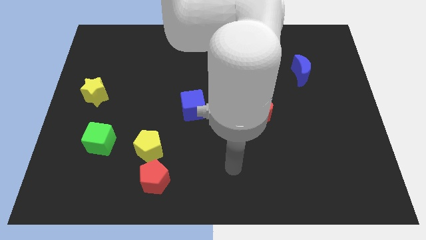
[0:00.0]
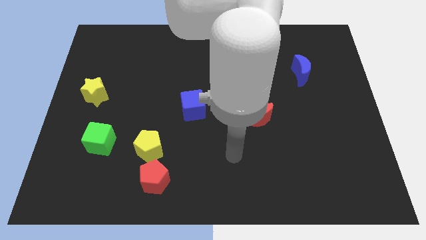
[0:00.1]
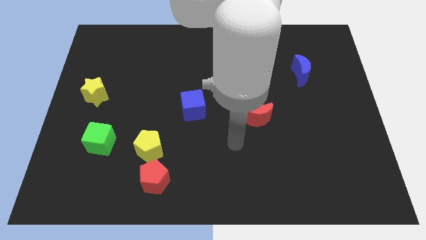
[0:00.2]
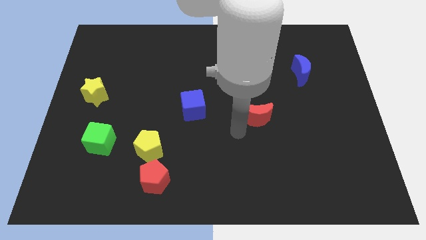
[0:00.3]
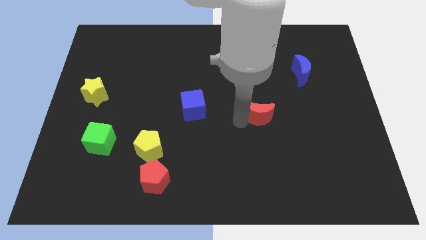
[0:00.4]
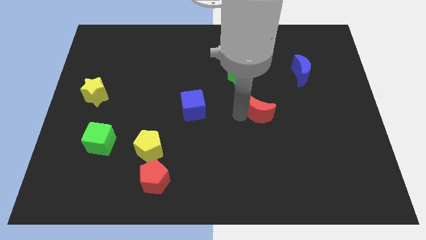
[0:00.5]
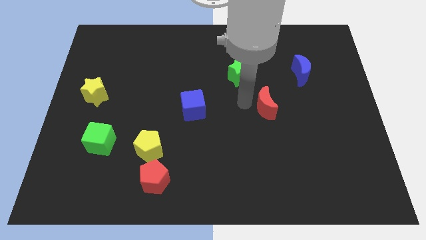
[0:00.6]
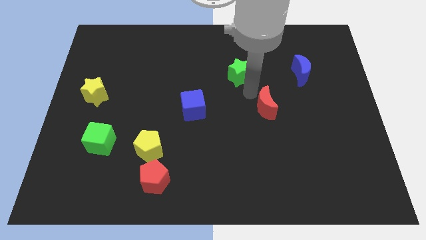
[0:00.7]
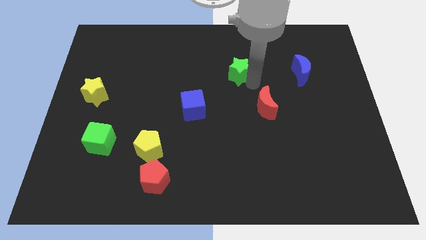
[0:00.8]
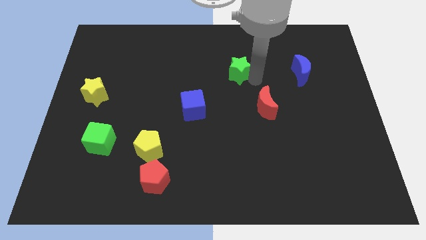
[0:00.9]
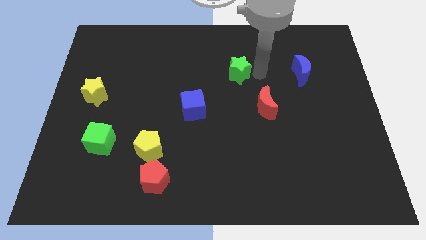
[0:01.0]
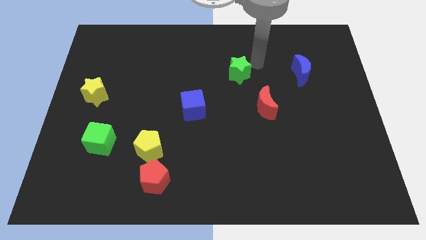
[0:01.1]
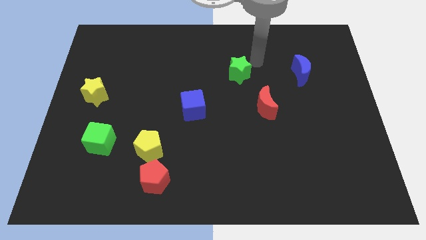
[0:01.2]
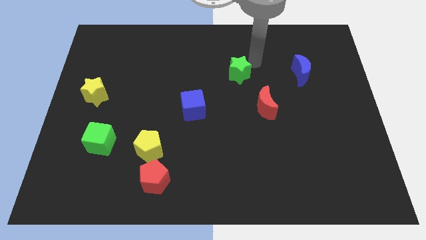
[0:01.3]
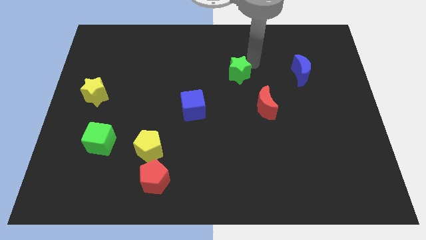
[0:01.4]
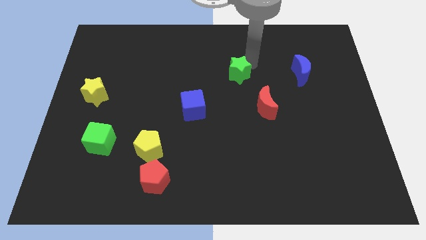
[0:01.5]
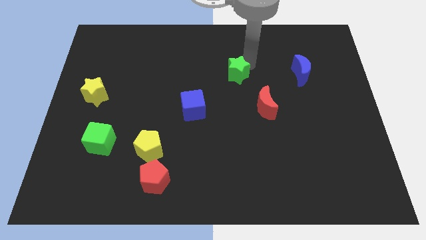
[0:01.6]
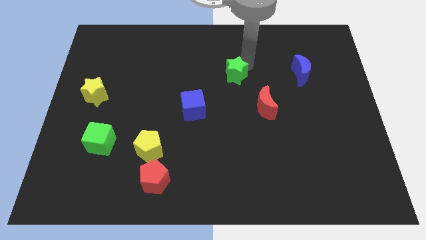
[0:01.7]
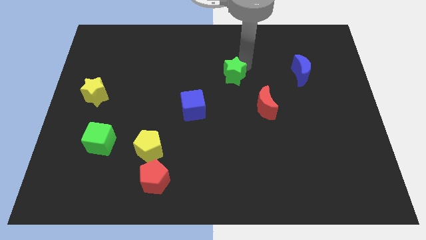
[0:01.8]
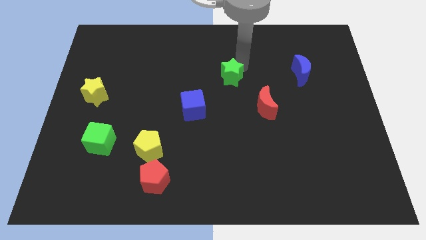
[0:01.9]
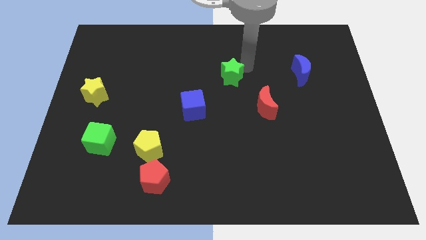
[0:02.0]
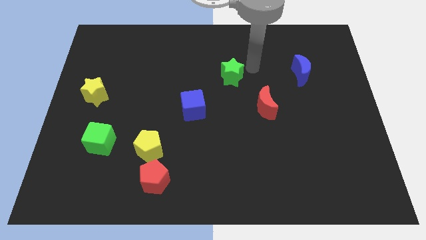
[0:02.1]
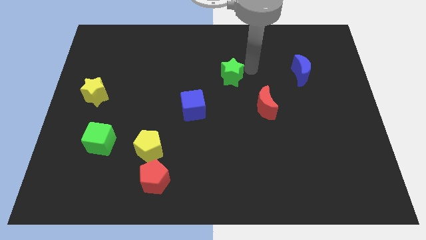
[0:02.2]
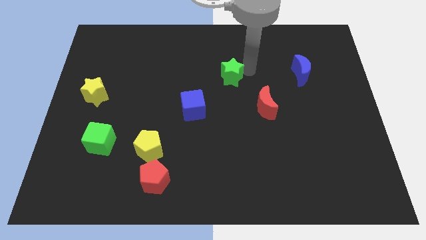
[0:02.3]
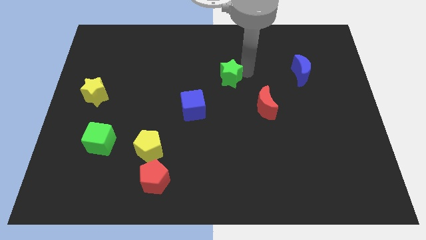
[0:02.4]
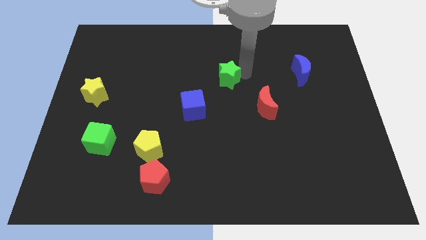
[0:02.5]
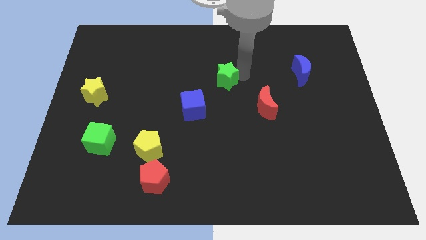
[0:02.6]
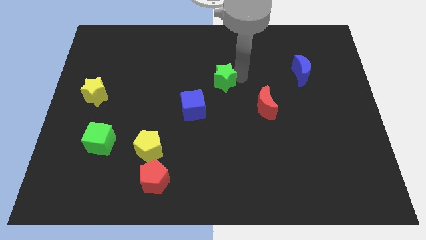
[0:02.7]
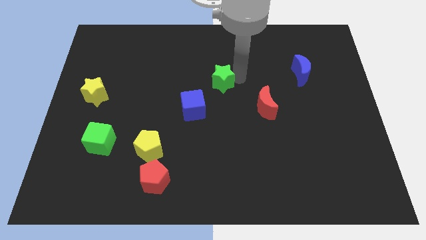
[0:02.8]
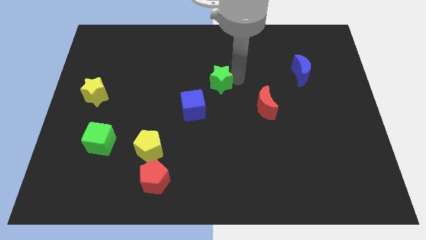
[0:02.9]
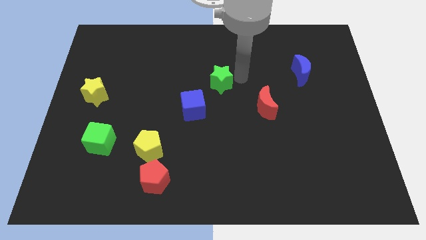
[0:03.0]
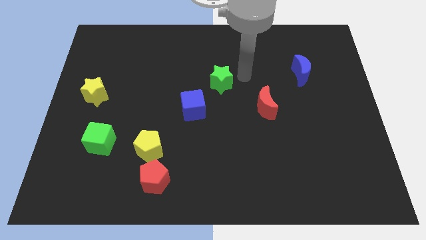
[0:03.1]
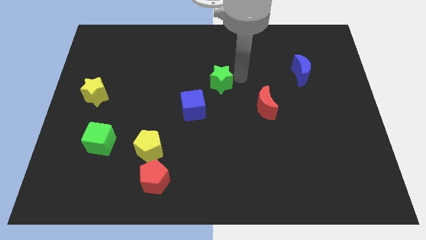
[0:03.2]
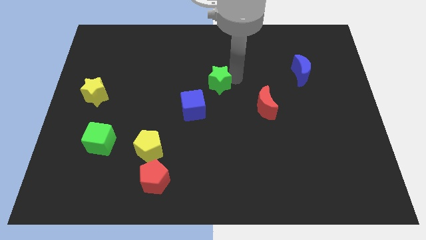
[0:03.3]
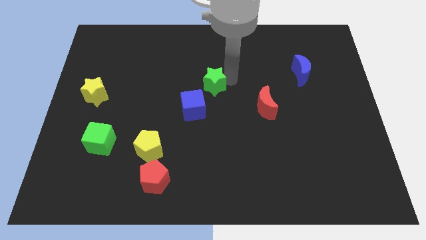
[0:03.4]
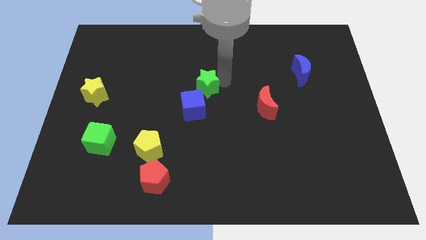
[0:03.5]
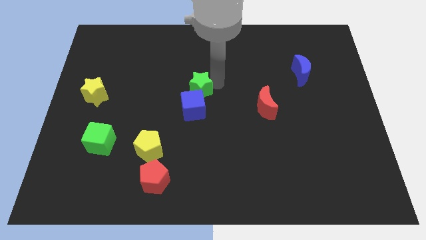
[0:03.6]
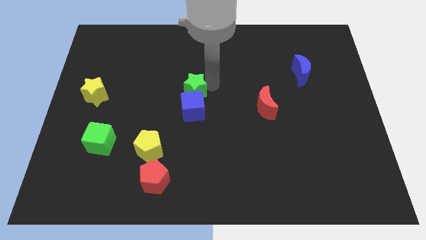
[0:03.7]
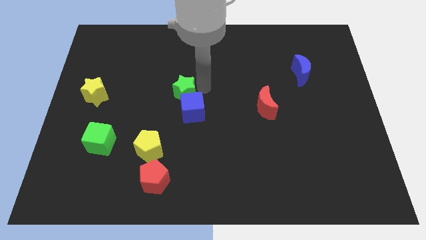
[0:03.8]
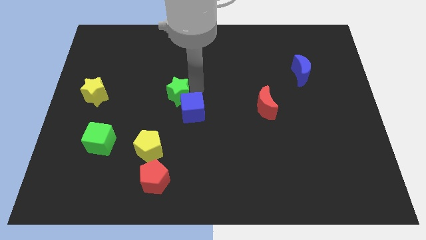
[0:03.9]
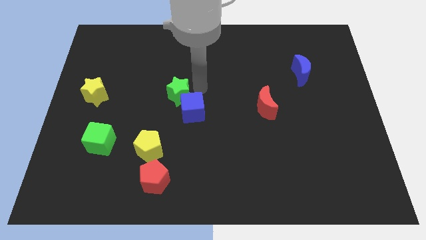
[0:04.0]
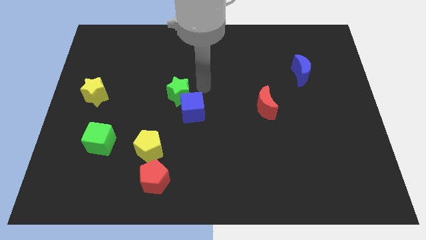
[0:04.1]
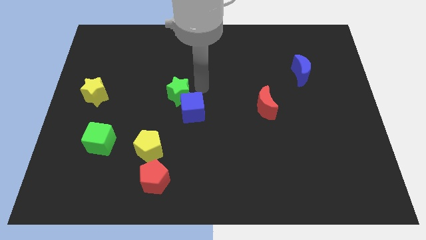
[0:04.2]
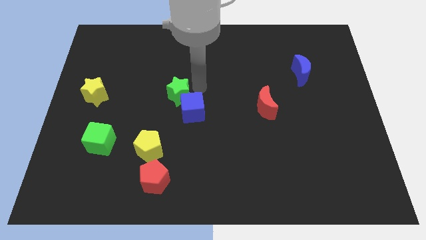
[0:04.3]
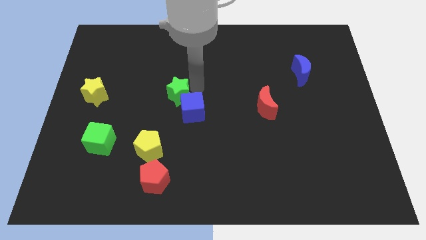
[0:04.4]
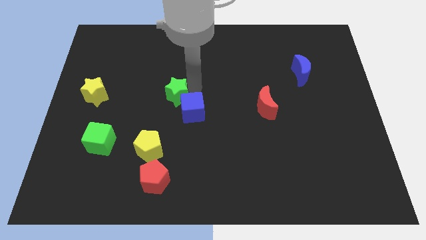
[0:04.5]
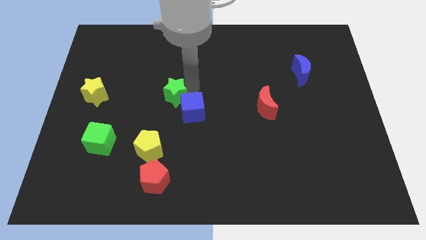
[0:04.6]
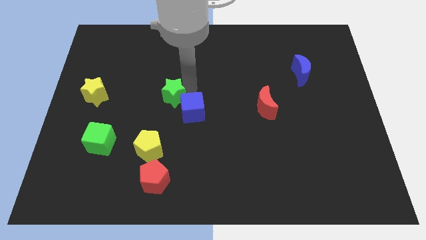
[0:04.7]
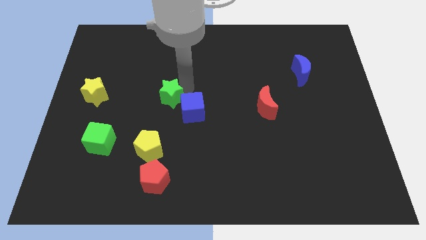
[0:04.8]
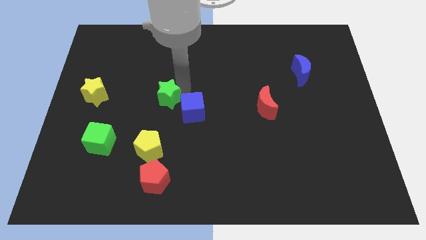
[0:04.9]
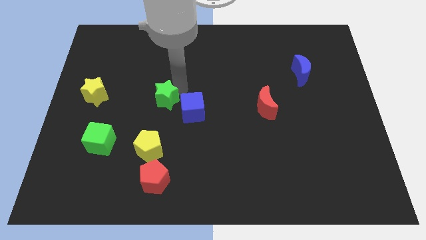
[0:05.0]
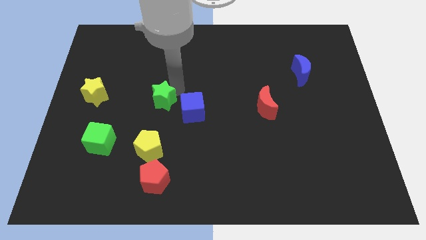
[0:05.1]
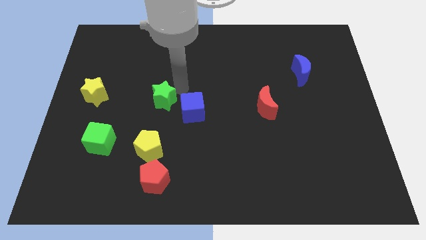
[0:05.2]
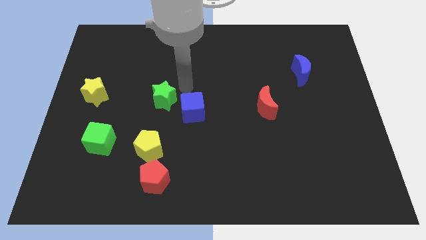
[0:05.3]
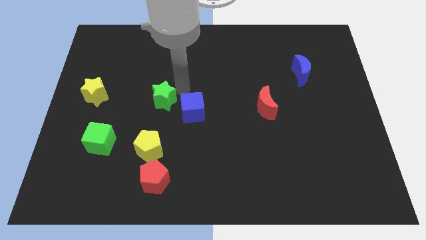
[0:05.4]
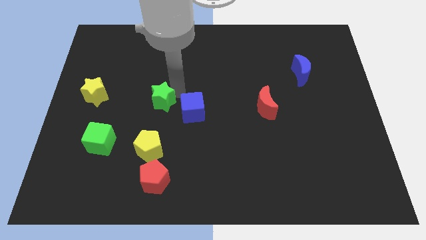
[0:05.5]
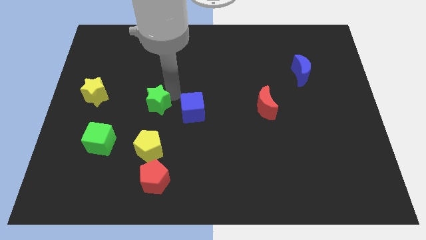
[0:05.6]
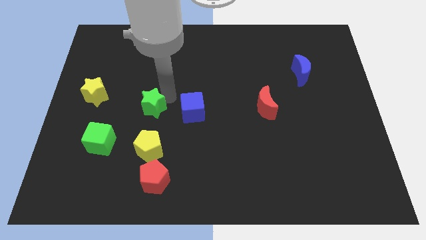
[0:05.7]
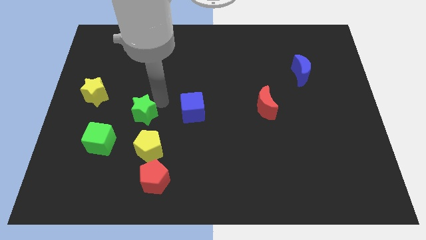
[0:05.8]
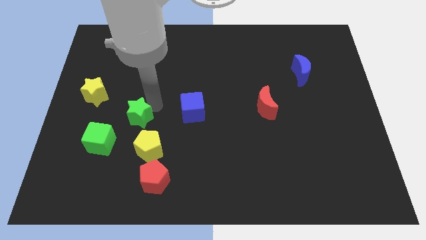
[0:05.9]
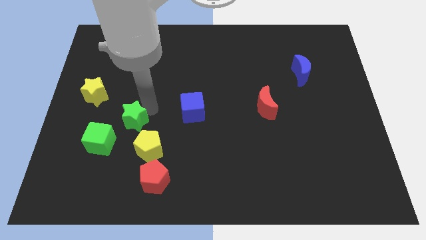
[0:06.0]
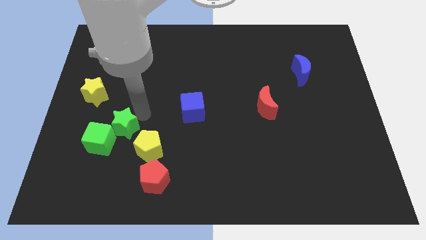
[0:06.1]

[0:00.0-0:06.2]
move the green star close to the green cube

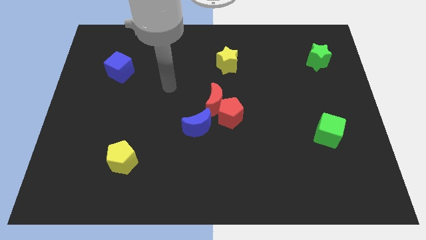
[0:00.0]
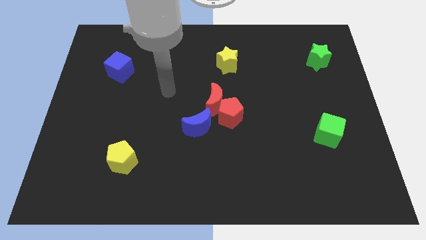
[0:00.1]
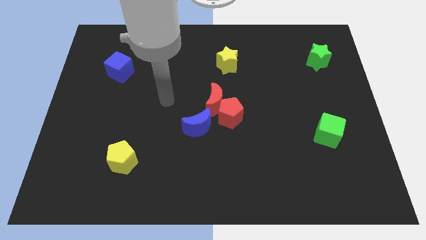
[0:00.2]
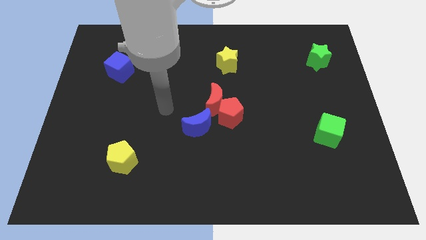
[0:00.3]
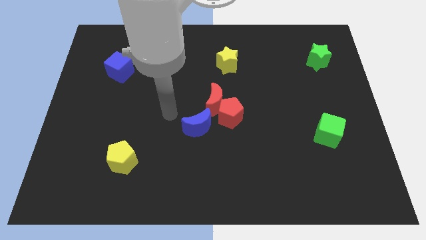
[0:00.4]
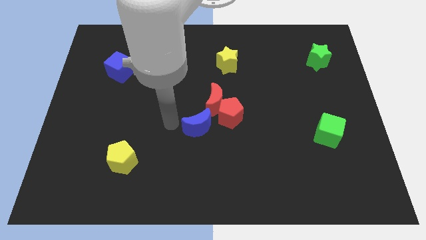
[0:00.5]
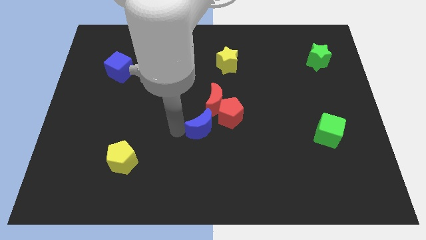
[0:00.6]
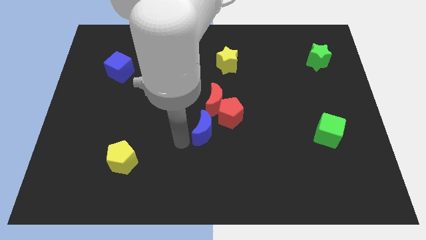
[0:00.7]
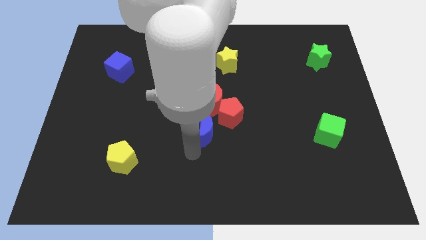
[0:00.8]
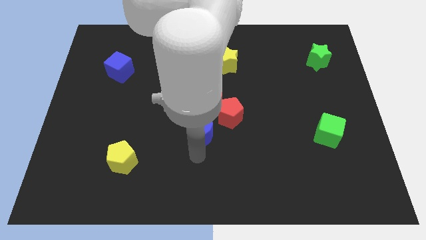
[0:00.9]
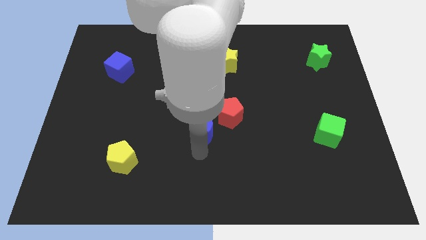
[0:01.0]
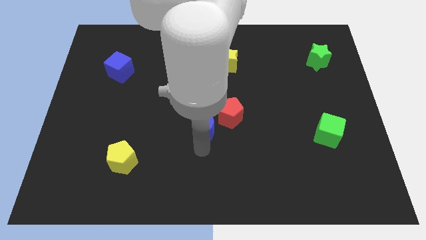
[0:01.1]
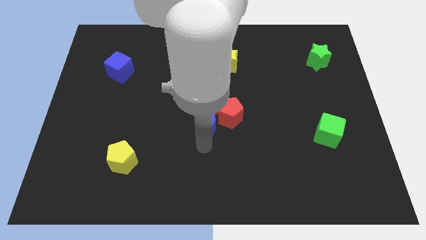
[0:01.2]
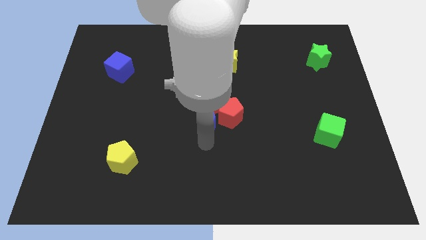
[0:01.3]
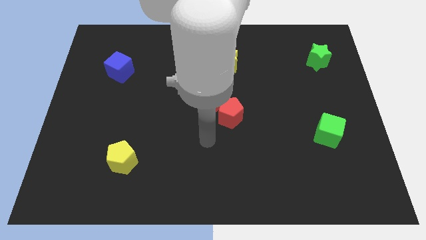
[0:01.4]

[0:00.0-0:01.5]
slide the blue moon to the red moon

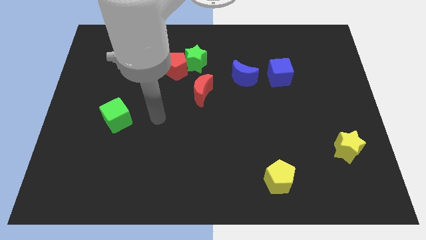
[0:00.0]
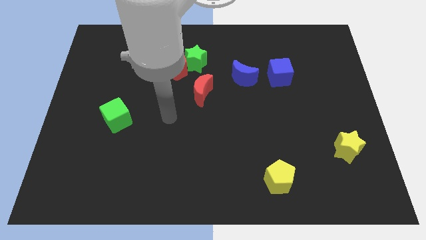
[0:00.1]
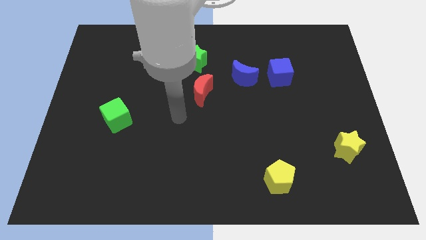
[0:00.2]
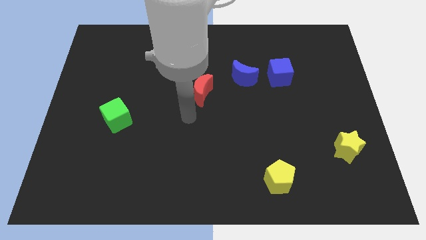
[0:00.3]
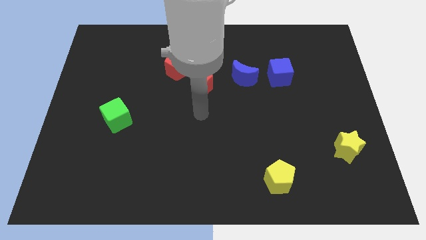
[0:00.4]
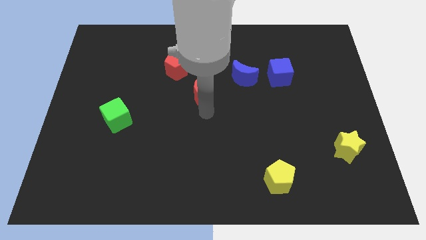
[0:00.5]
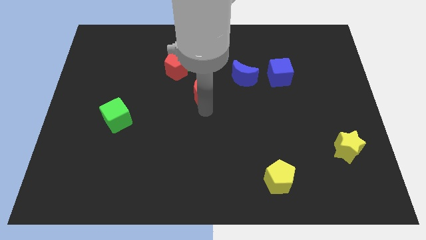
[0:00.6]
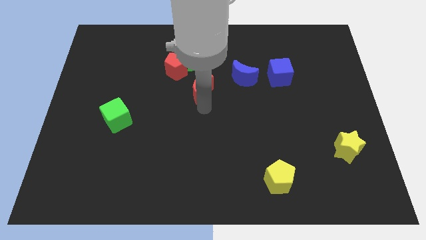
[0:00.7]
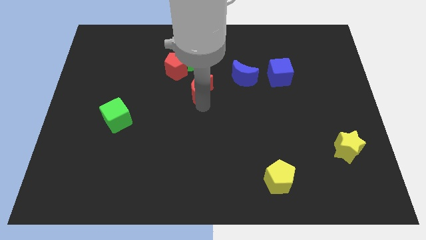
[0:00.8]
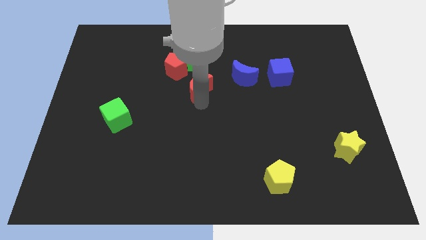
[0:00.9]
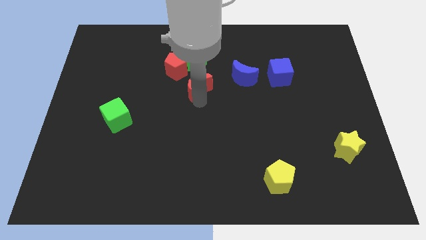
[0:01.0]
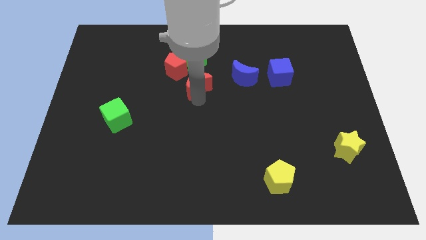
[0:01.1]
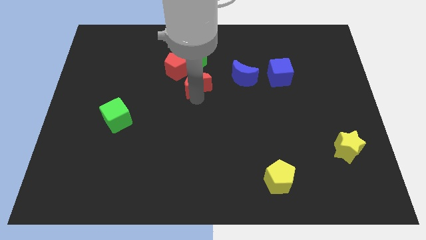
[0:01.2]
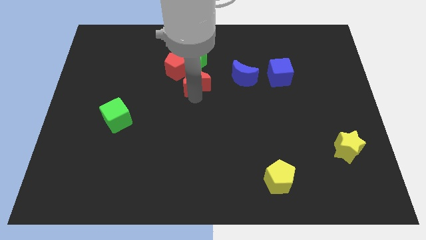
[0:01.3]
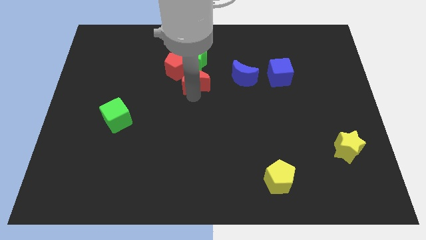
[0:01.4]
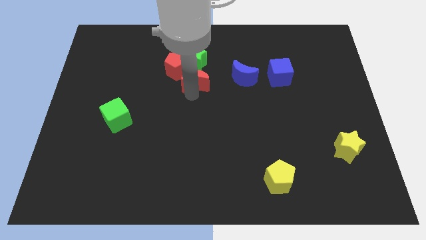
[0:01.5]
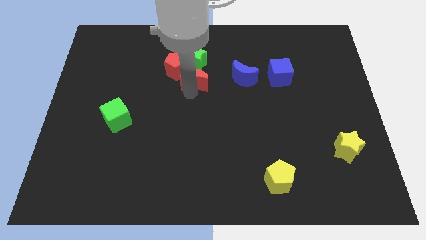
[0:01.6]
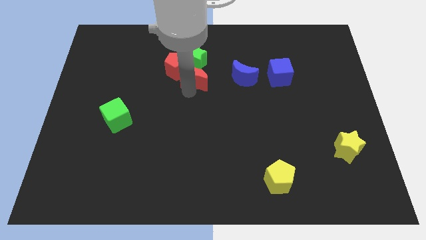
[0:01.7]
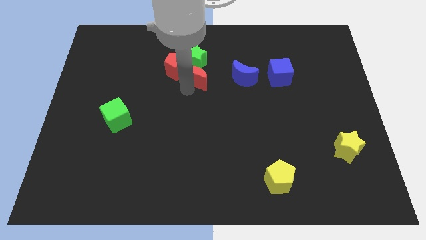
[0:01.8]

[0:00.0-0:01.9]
push the red moon close to the green star
